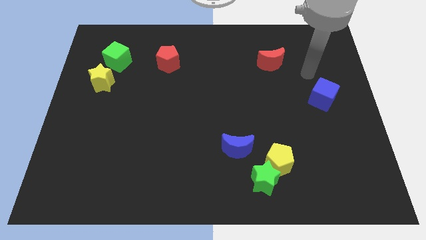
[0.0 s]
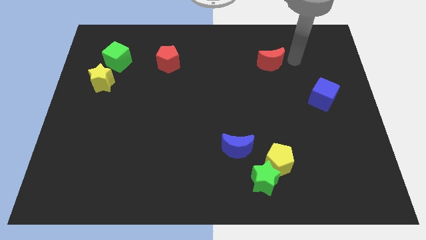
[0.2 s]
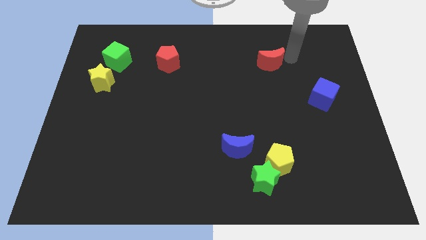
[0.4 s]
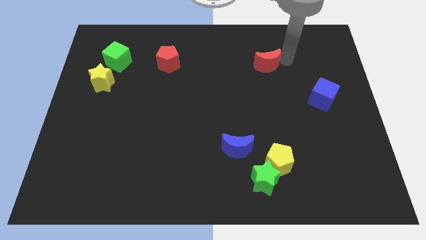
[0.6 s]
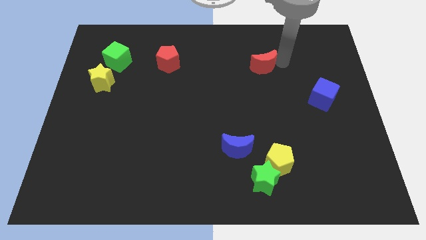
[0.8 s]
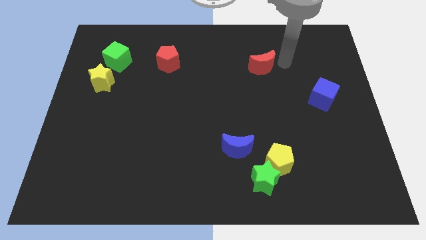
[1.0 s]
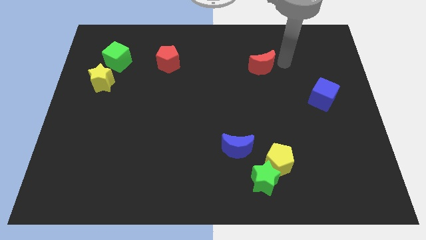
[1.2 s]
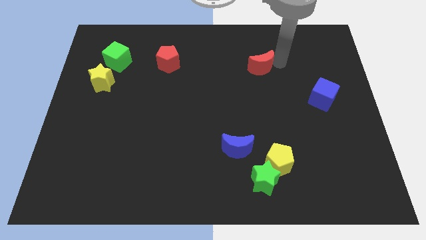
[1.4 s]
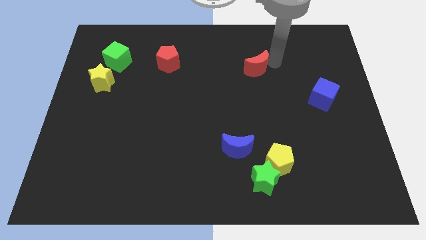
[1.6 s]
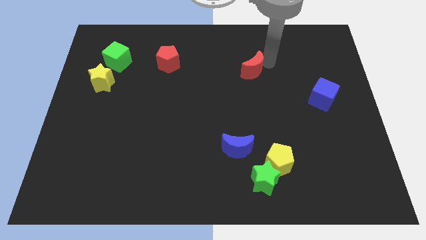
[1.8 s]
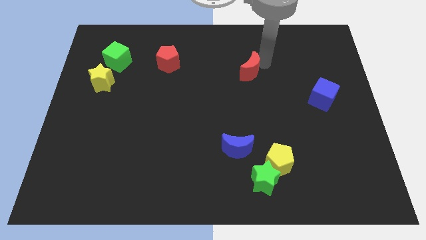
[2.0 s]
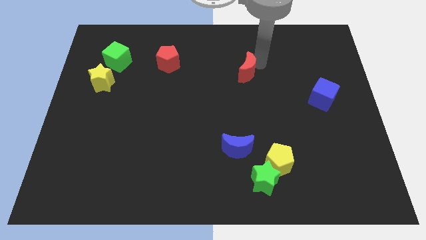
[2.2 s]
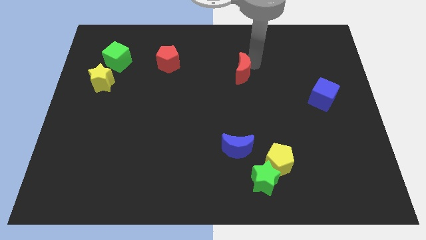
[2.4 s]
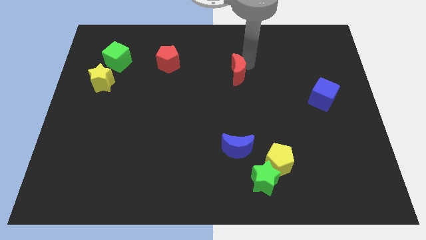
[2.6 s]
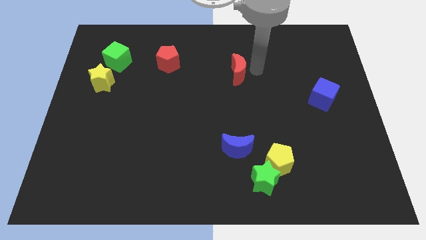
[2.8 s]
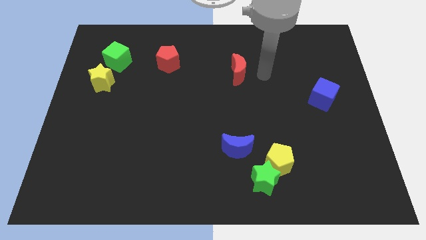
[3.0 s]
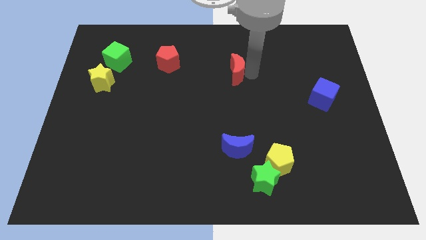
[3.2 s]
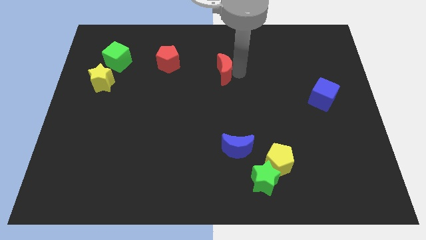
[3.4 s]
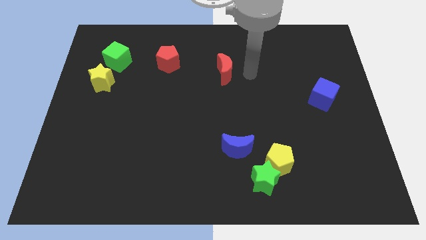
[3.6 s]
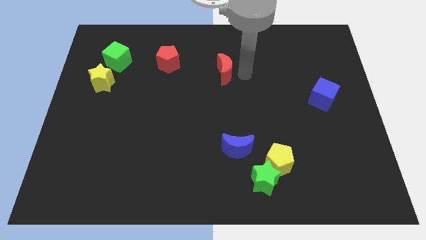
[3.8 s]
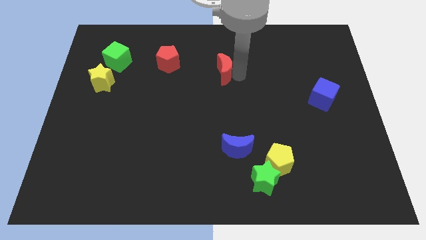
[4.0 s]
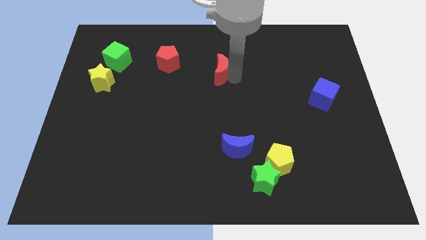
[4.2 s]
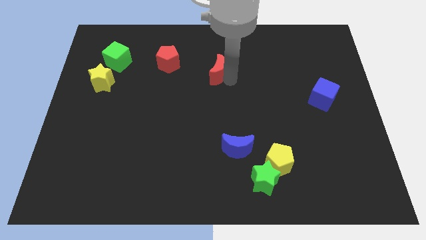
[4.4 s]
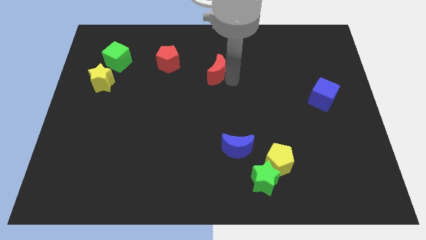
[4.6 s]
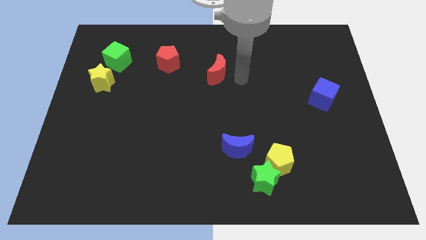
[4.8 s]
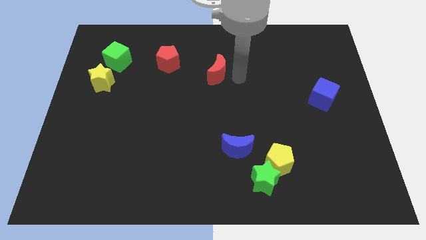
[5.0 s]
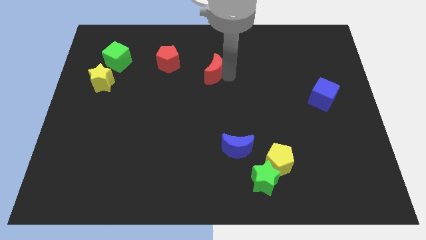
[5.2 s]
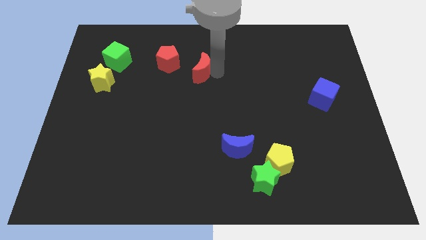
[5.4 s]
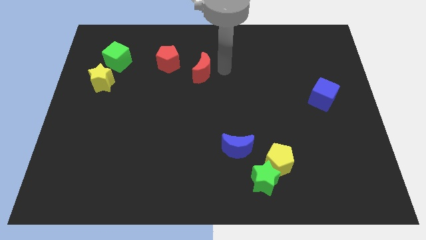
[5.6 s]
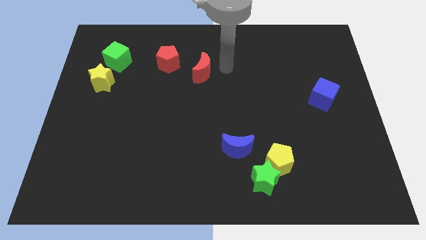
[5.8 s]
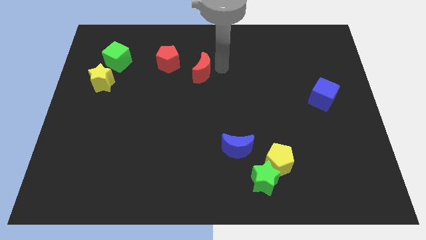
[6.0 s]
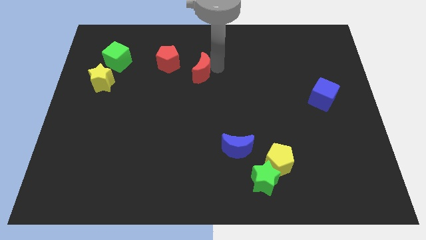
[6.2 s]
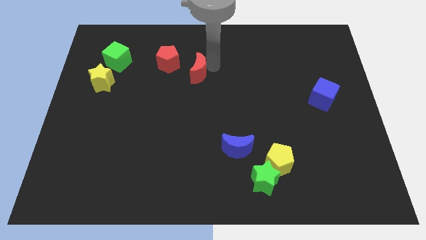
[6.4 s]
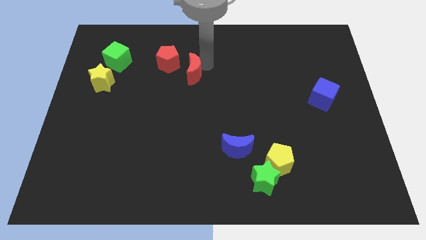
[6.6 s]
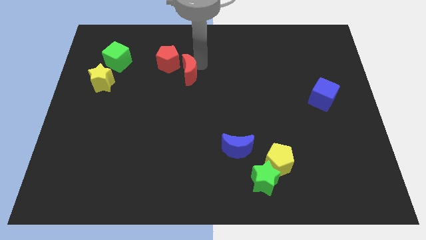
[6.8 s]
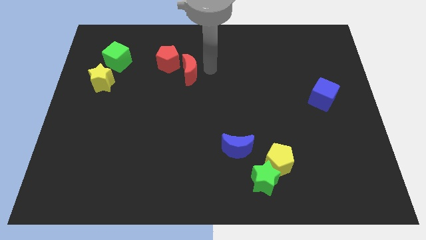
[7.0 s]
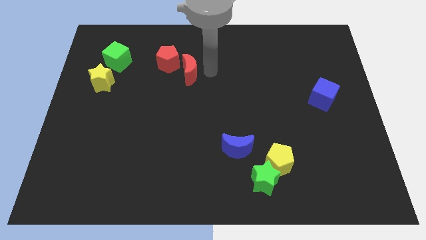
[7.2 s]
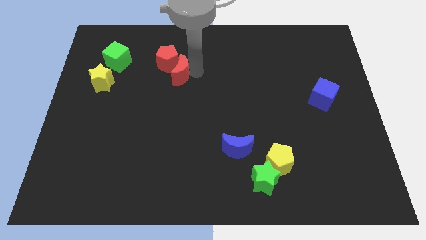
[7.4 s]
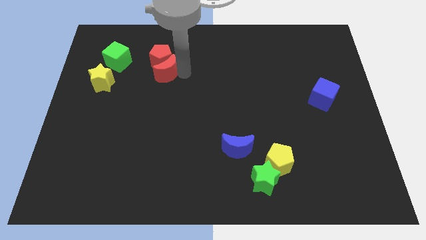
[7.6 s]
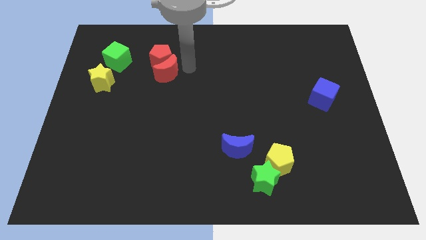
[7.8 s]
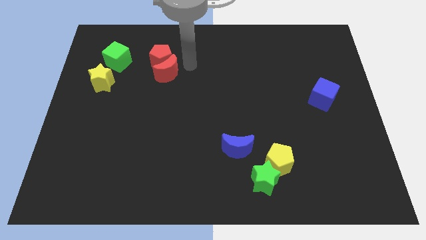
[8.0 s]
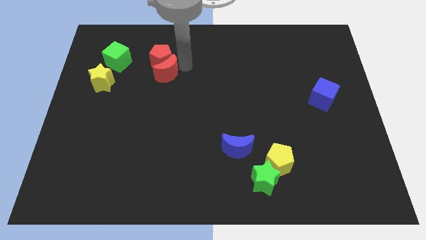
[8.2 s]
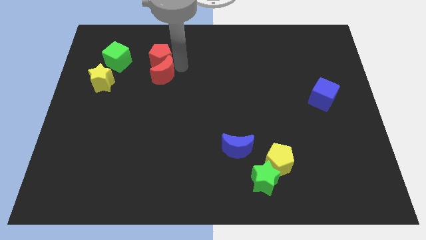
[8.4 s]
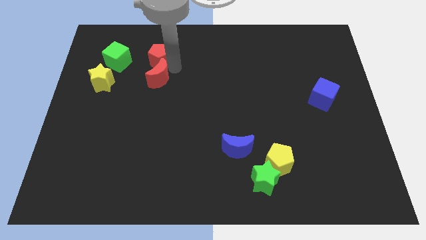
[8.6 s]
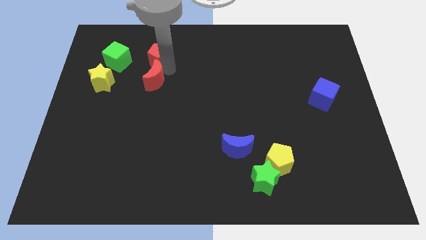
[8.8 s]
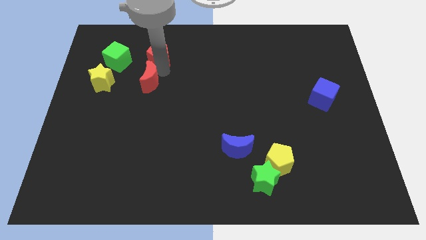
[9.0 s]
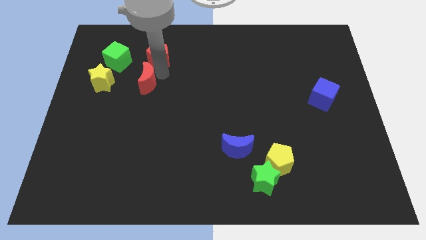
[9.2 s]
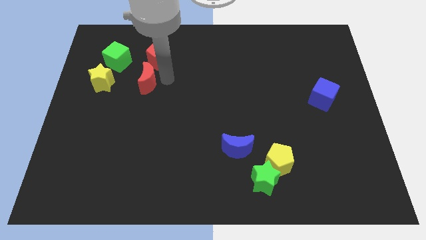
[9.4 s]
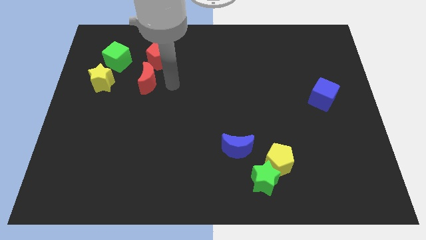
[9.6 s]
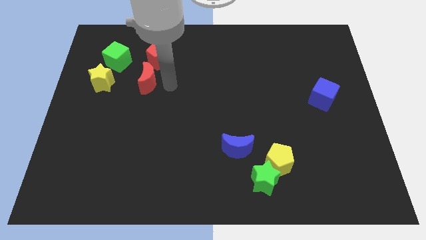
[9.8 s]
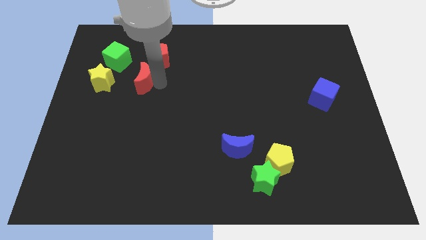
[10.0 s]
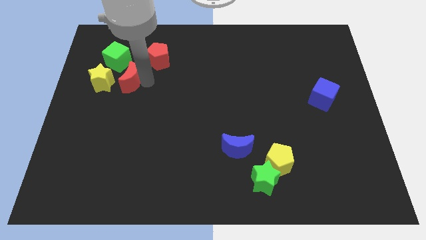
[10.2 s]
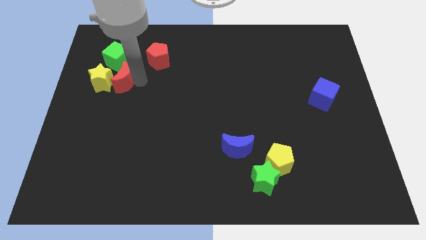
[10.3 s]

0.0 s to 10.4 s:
push the red moon towards the yellow star

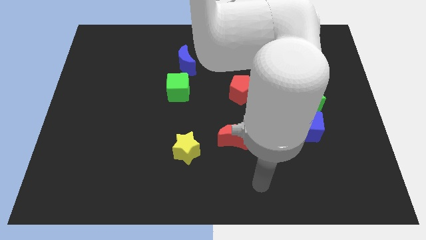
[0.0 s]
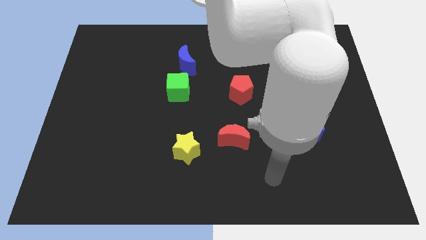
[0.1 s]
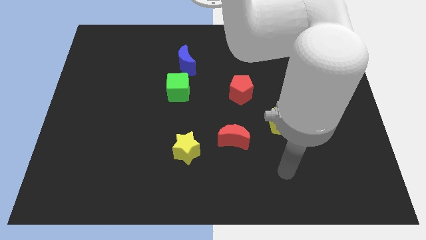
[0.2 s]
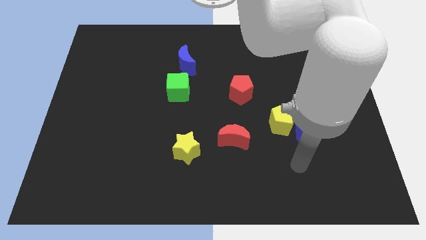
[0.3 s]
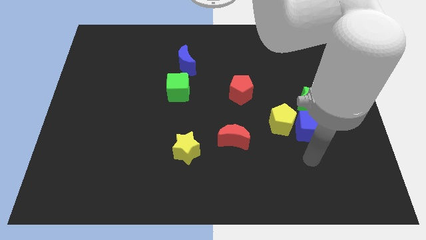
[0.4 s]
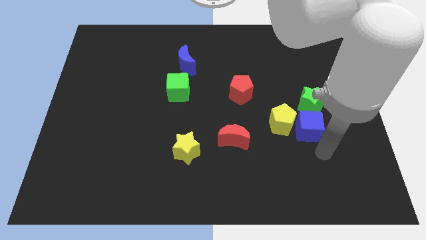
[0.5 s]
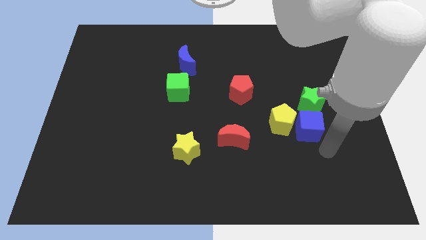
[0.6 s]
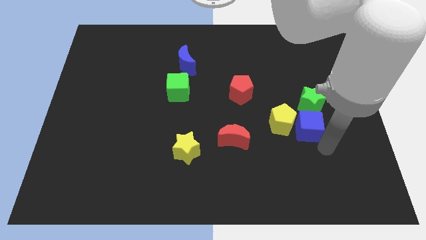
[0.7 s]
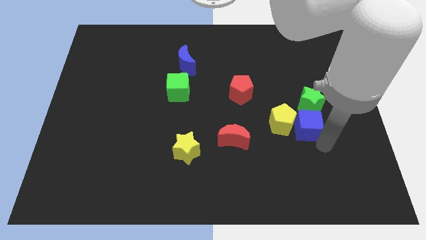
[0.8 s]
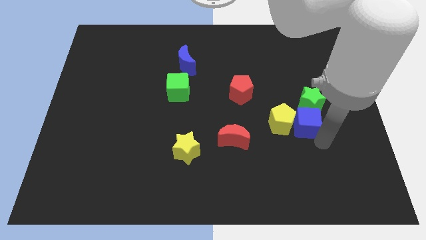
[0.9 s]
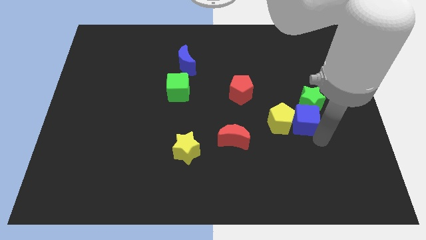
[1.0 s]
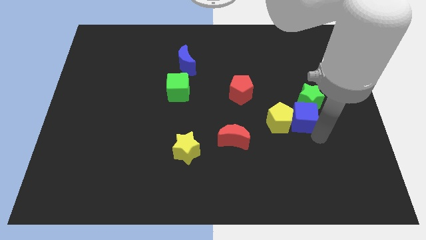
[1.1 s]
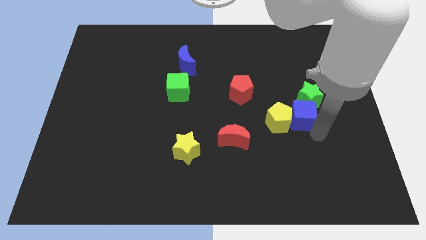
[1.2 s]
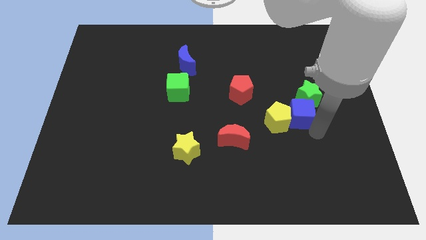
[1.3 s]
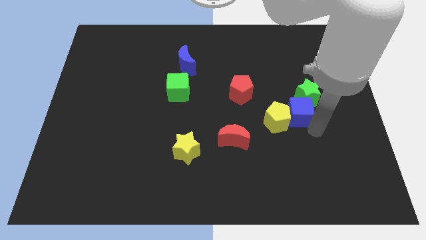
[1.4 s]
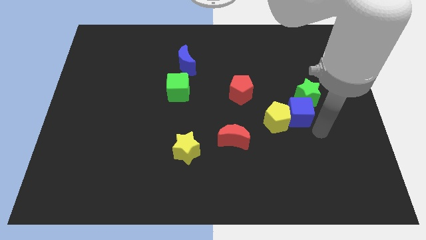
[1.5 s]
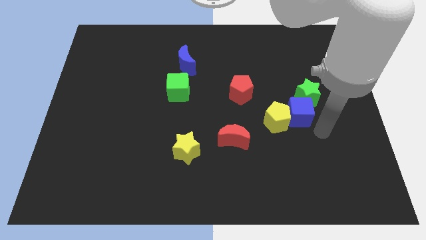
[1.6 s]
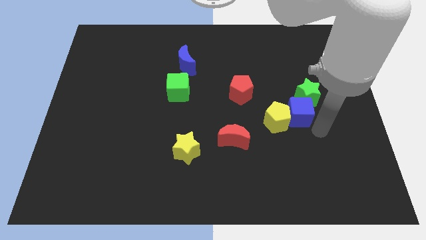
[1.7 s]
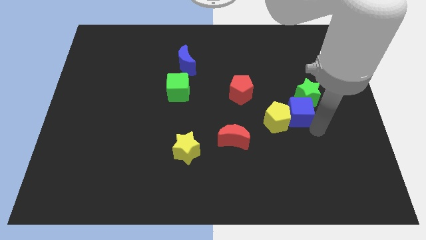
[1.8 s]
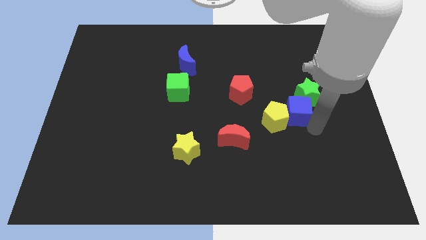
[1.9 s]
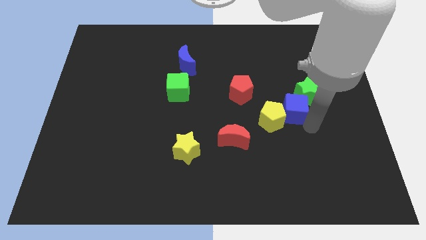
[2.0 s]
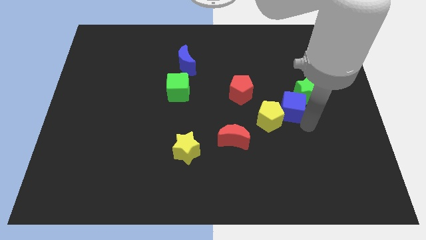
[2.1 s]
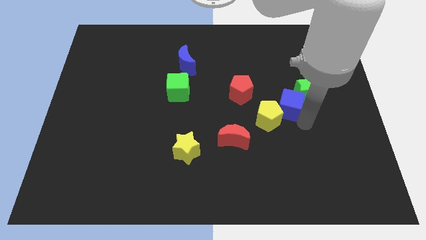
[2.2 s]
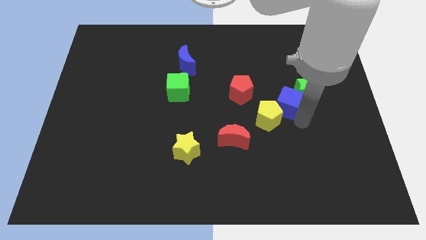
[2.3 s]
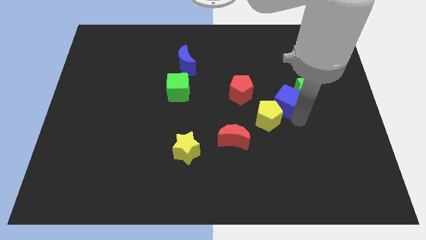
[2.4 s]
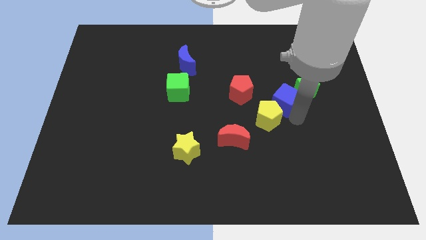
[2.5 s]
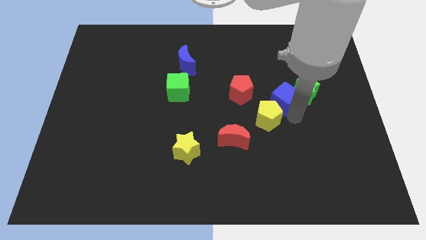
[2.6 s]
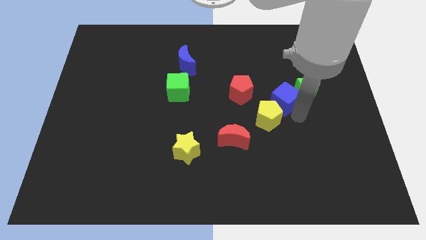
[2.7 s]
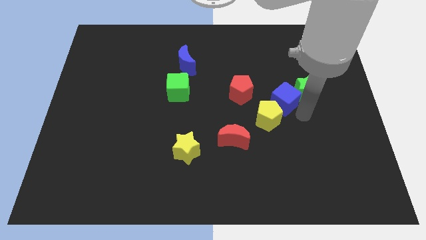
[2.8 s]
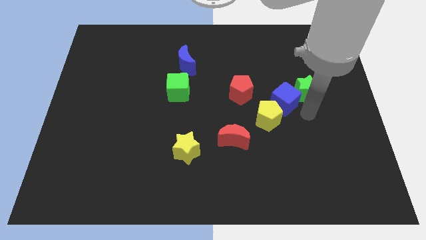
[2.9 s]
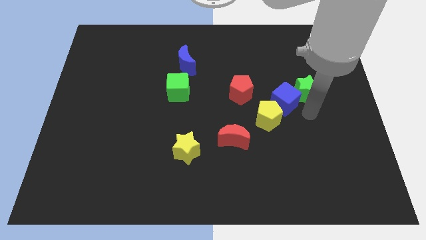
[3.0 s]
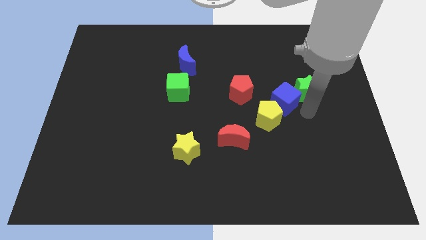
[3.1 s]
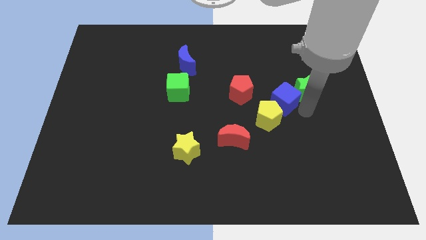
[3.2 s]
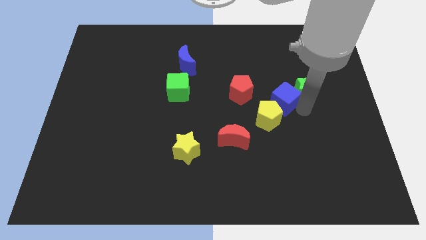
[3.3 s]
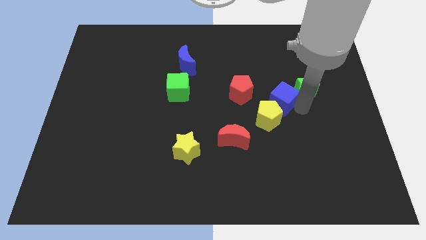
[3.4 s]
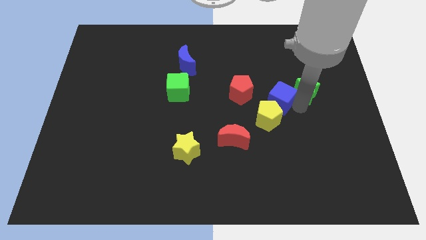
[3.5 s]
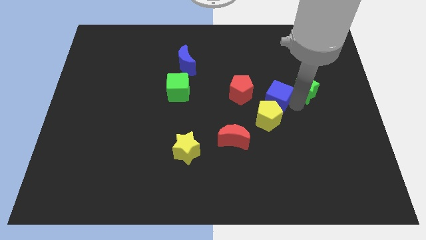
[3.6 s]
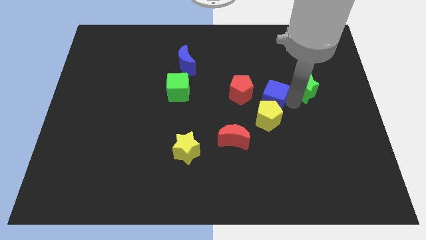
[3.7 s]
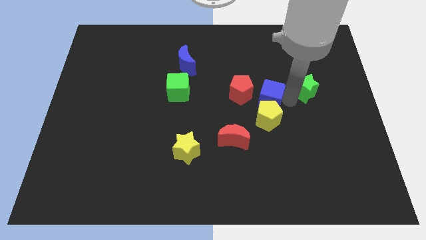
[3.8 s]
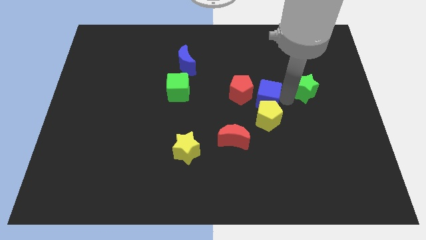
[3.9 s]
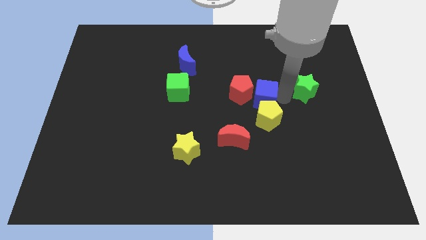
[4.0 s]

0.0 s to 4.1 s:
put the blue cube to the red pentagon
